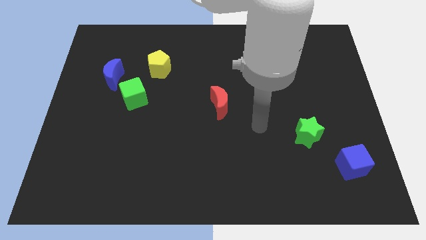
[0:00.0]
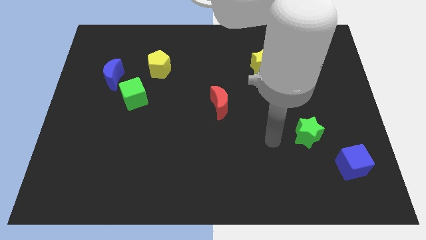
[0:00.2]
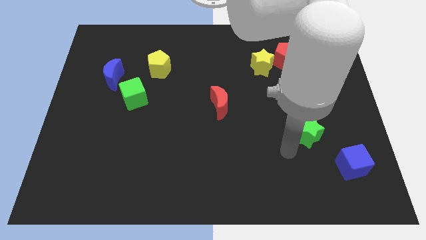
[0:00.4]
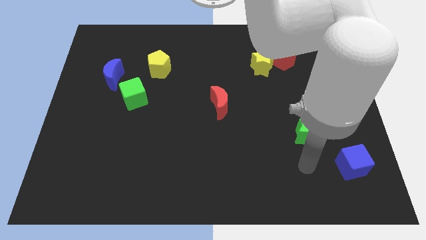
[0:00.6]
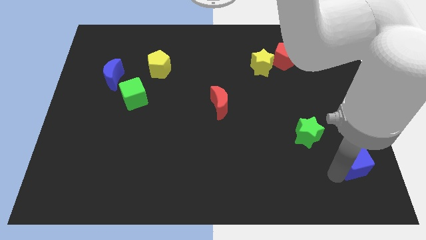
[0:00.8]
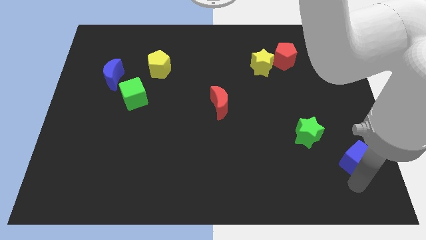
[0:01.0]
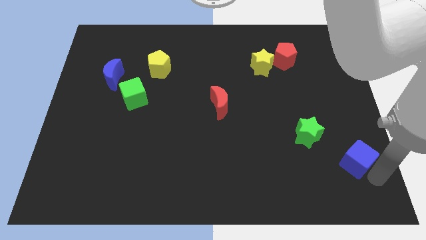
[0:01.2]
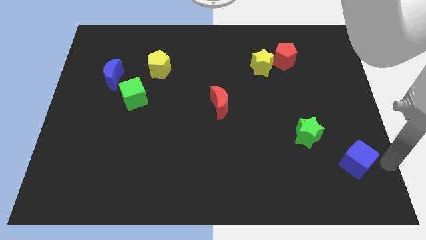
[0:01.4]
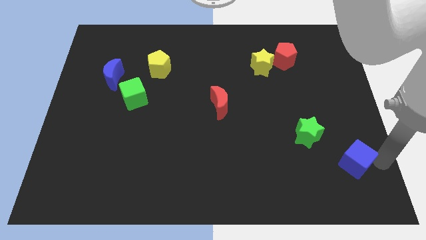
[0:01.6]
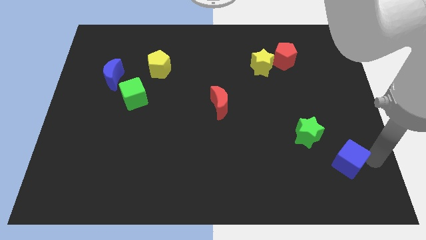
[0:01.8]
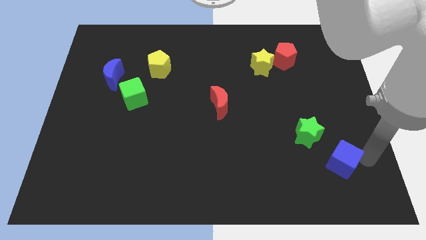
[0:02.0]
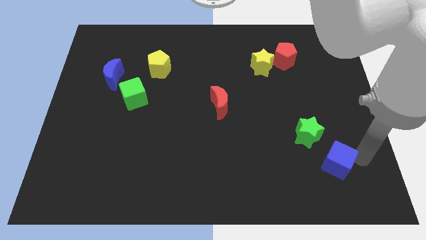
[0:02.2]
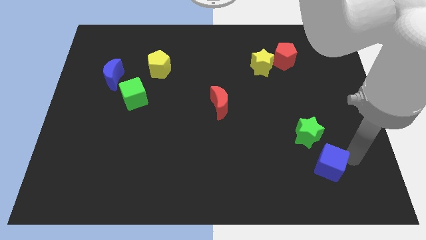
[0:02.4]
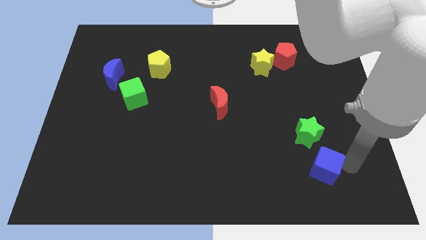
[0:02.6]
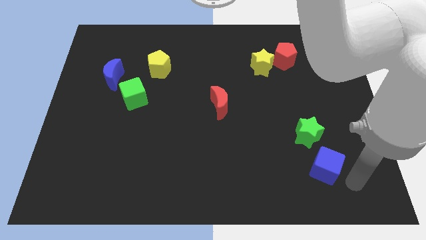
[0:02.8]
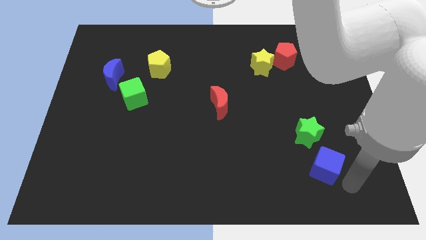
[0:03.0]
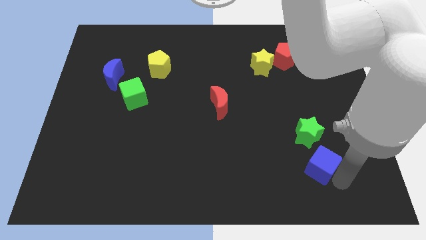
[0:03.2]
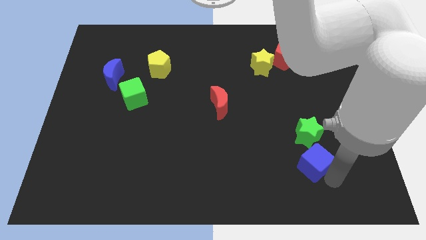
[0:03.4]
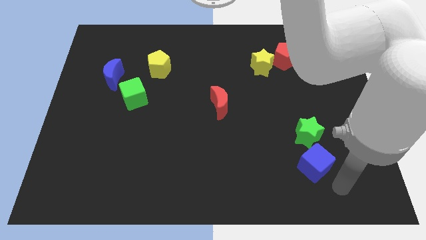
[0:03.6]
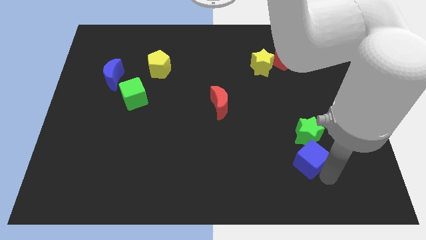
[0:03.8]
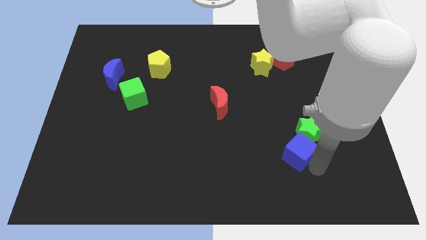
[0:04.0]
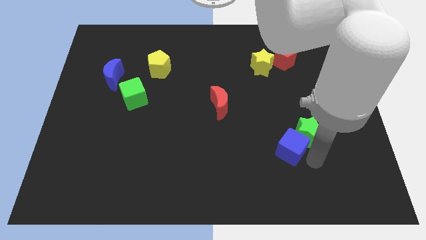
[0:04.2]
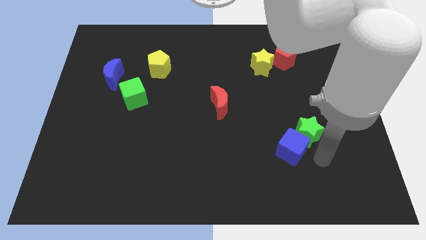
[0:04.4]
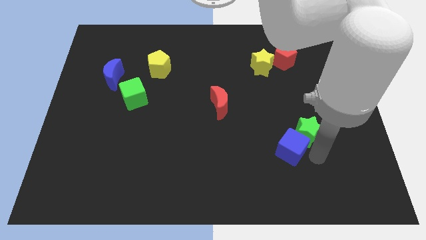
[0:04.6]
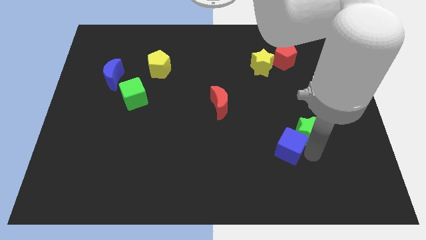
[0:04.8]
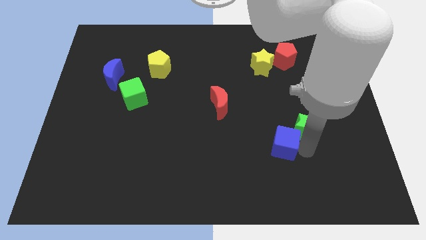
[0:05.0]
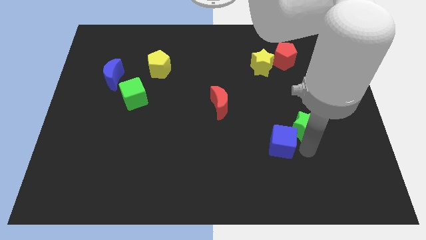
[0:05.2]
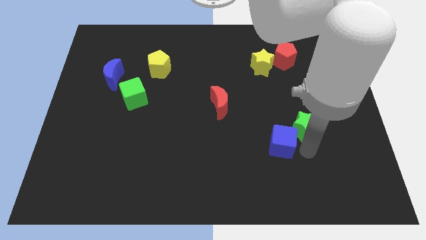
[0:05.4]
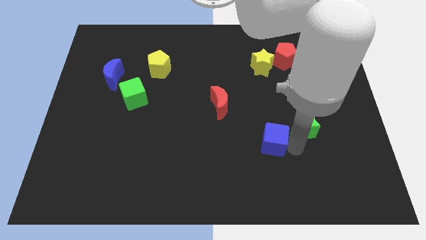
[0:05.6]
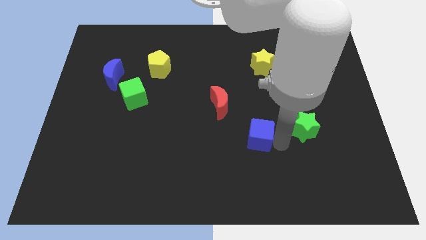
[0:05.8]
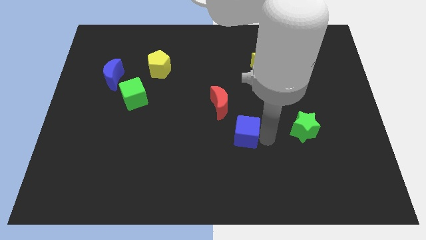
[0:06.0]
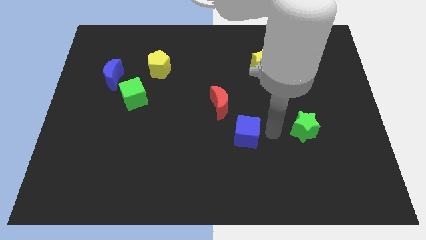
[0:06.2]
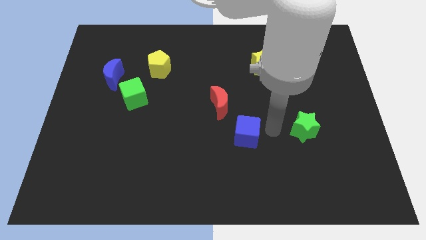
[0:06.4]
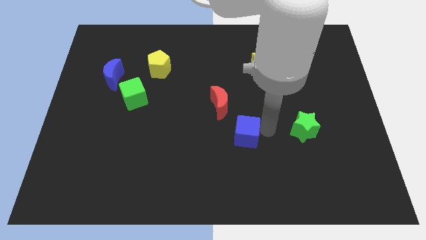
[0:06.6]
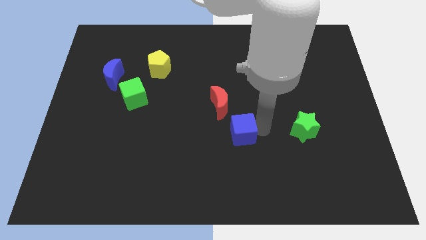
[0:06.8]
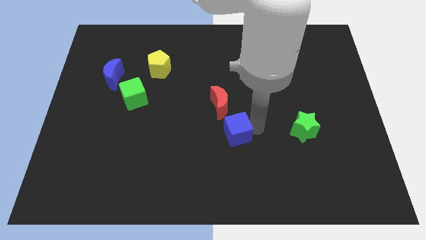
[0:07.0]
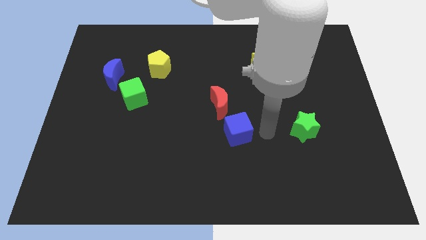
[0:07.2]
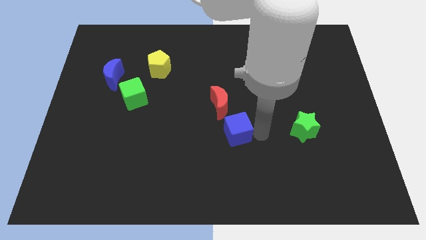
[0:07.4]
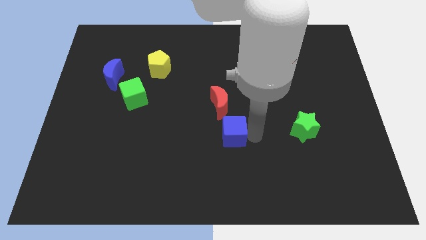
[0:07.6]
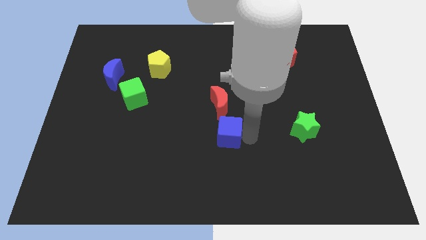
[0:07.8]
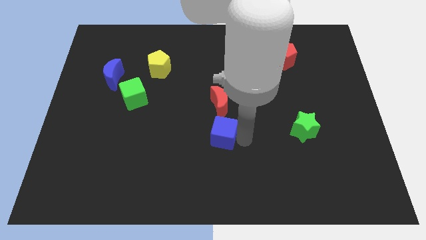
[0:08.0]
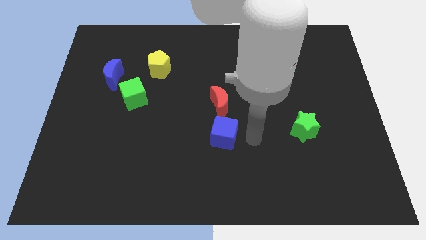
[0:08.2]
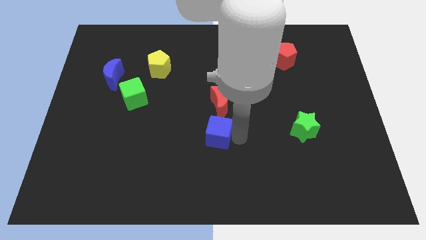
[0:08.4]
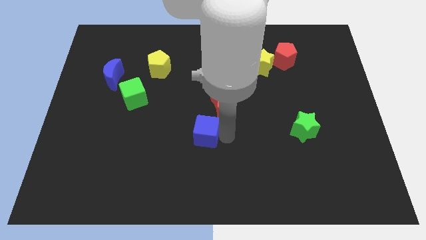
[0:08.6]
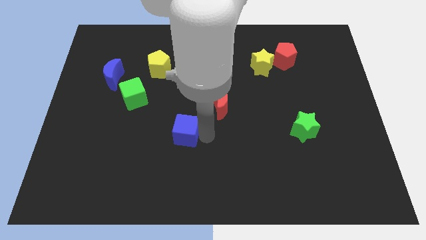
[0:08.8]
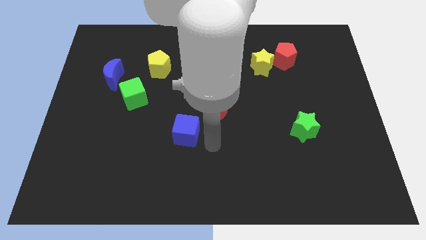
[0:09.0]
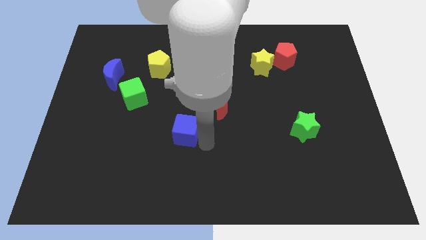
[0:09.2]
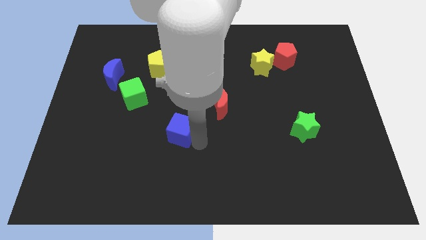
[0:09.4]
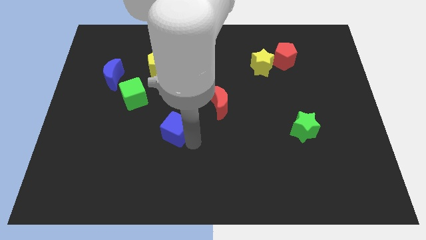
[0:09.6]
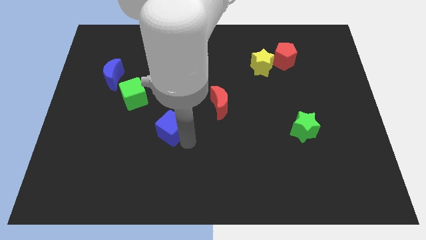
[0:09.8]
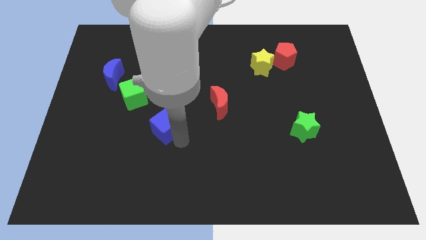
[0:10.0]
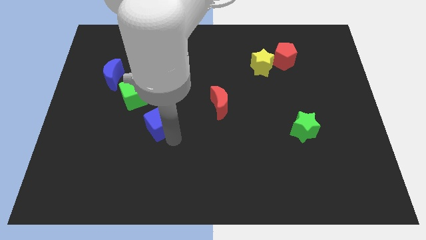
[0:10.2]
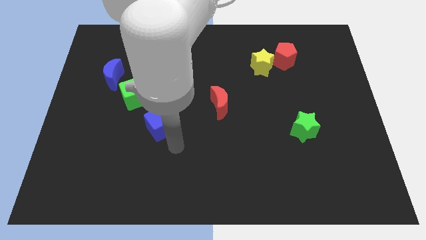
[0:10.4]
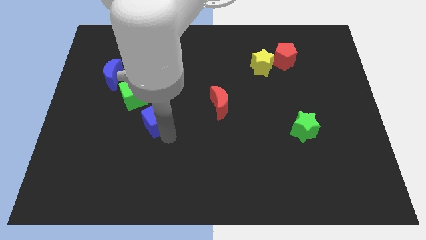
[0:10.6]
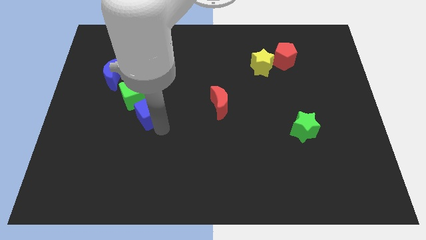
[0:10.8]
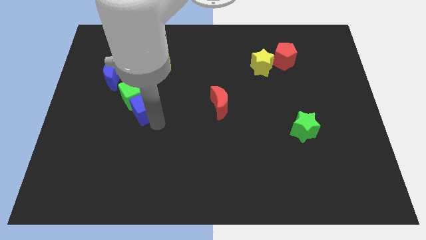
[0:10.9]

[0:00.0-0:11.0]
slide the blue cube next to the green cube
